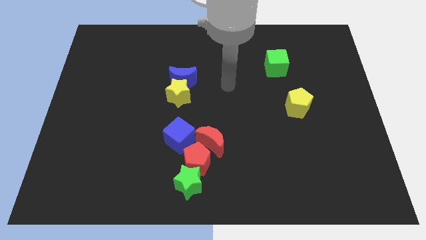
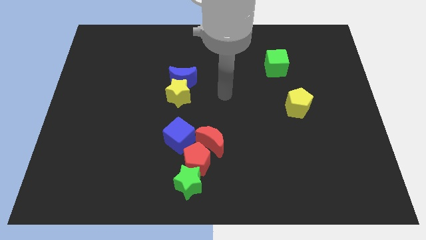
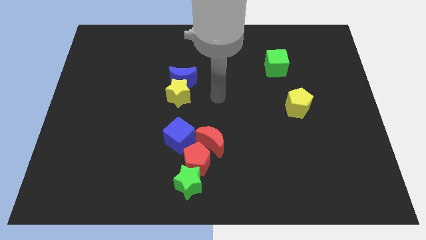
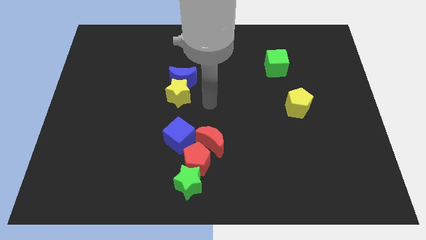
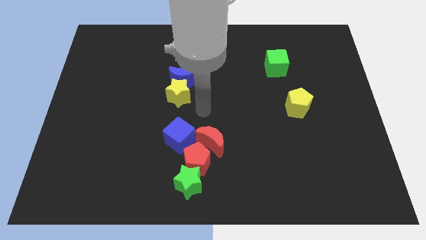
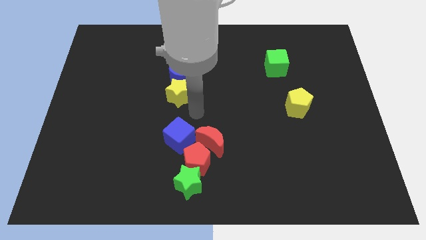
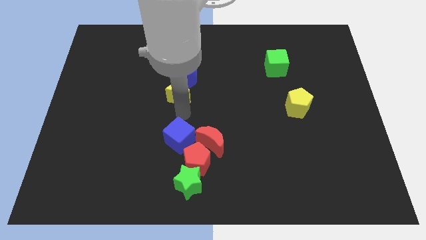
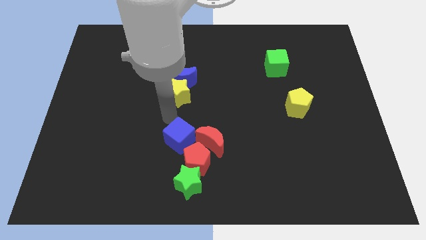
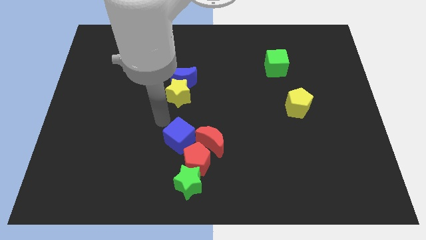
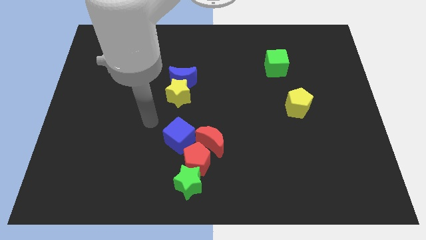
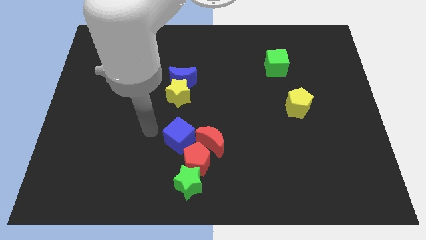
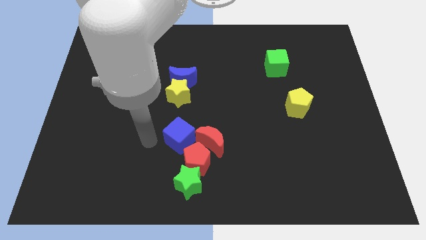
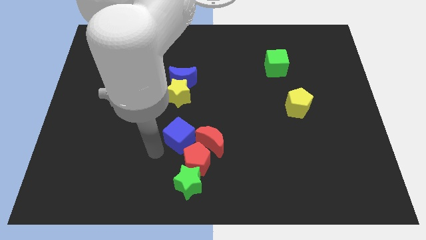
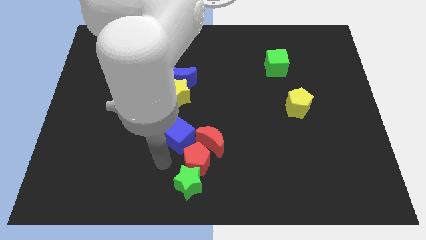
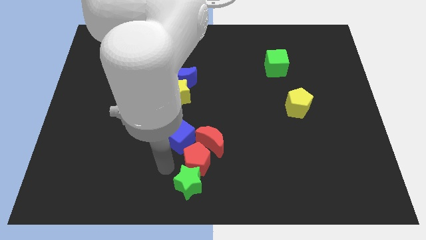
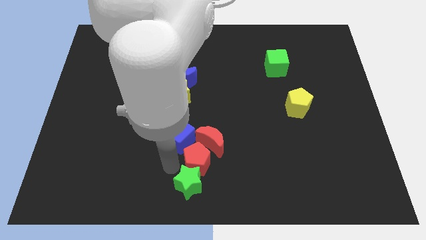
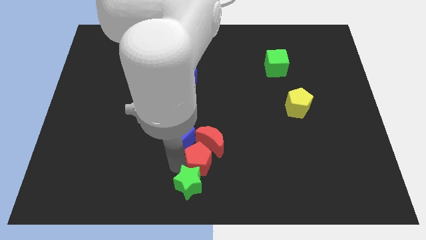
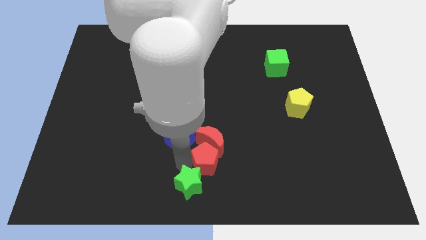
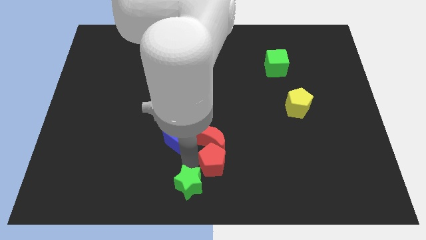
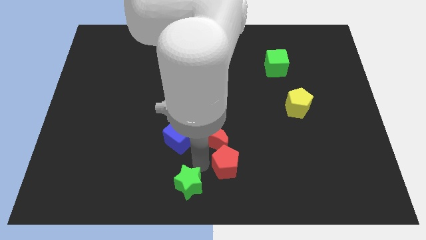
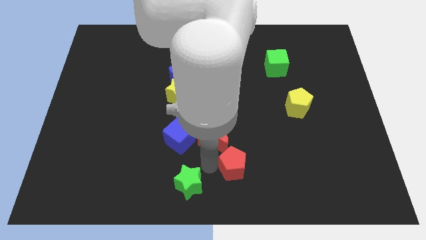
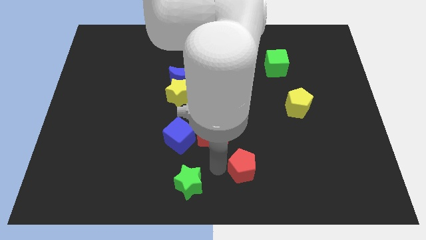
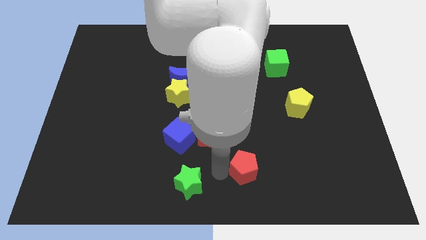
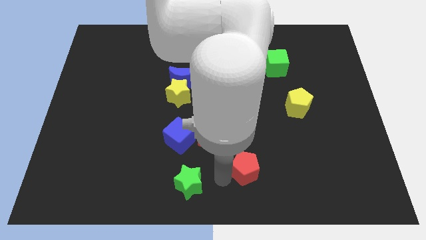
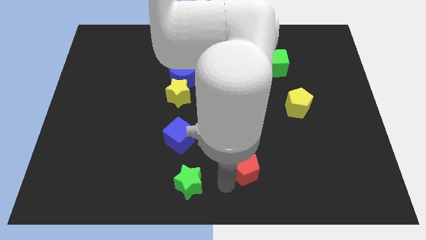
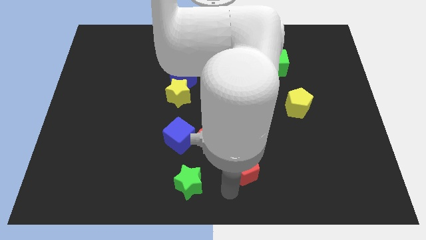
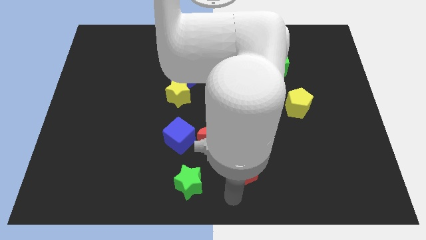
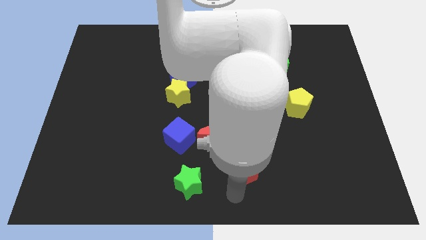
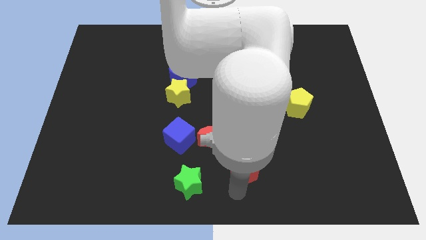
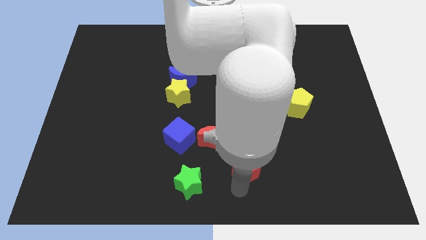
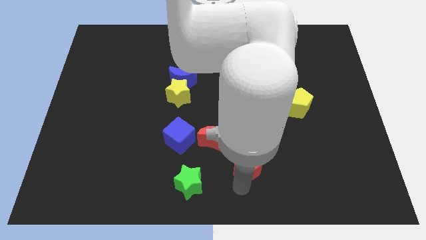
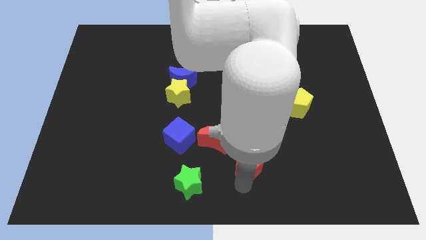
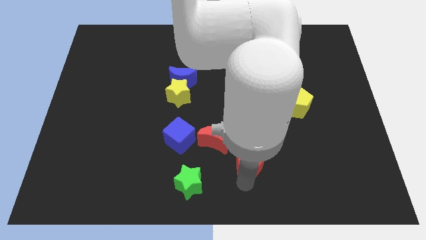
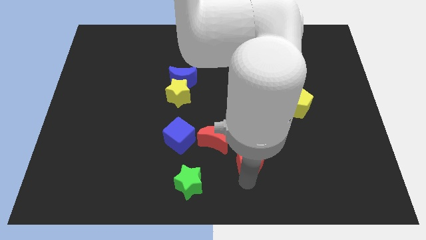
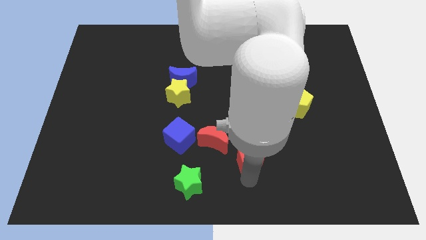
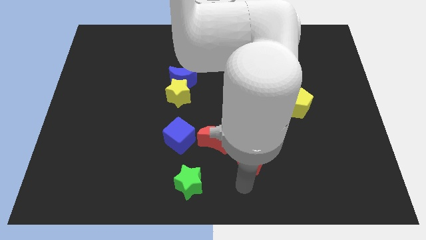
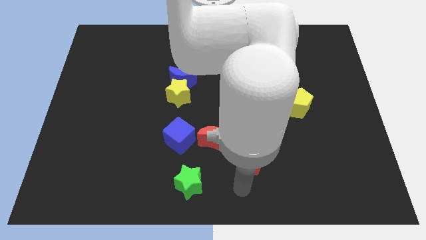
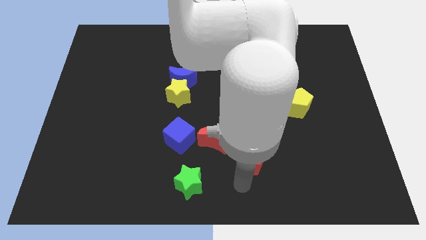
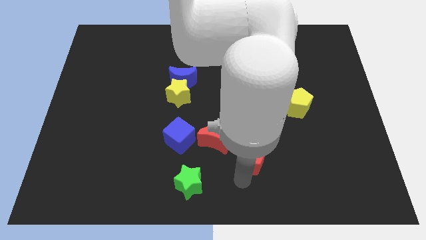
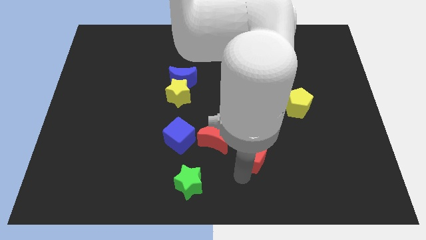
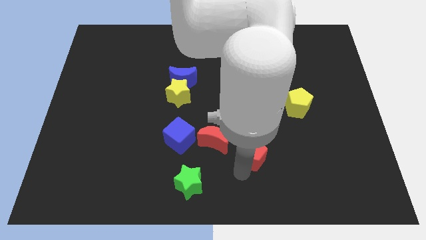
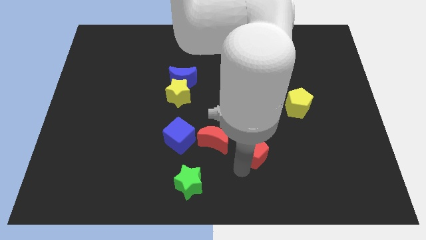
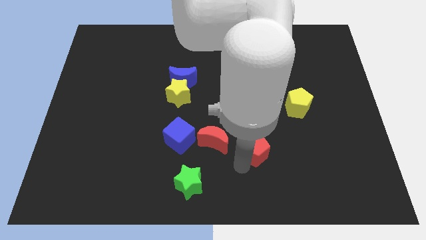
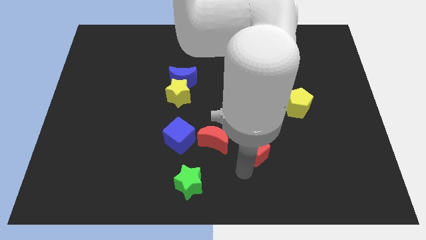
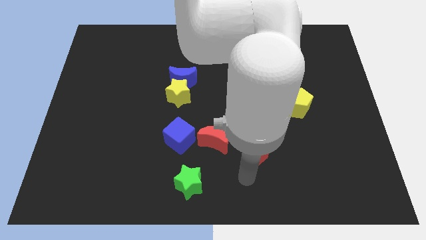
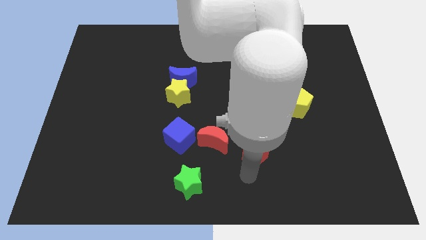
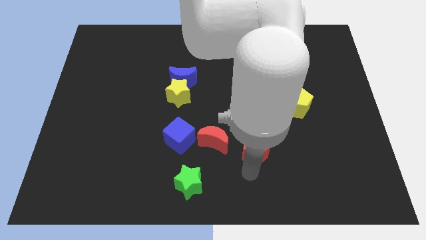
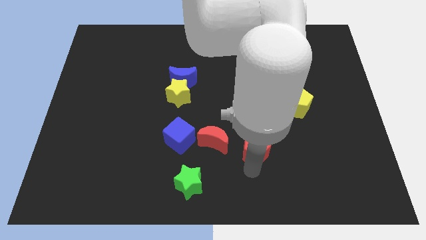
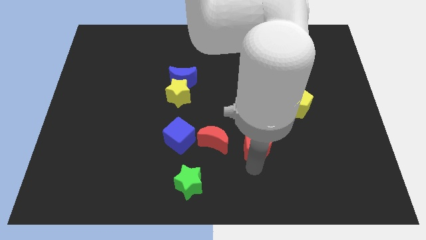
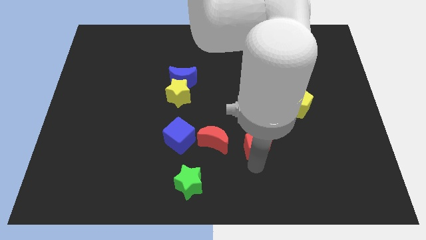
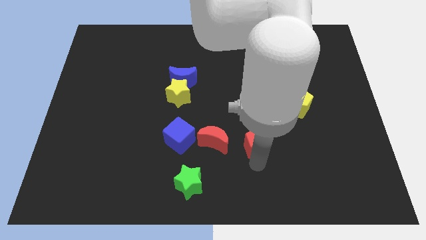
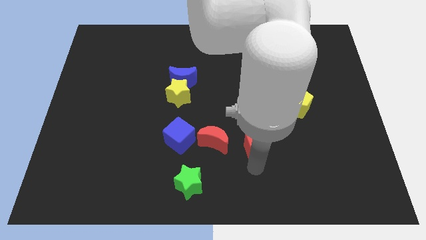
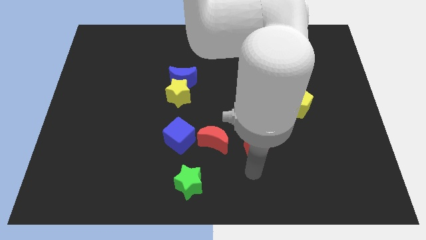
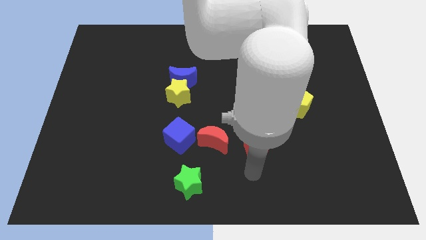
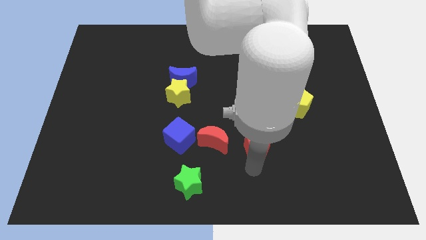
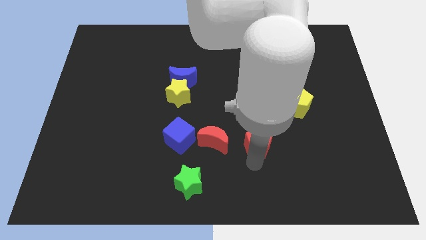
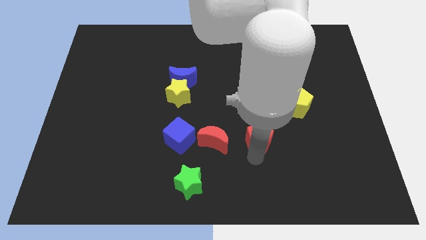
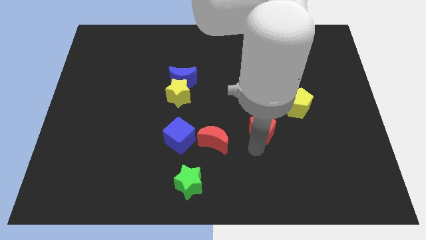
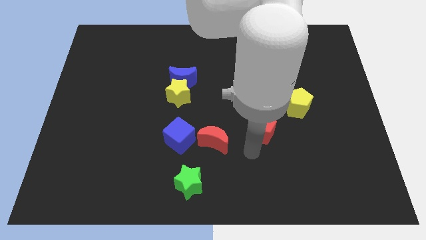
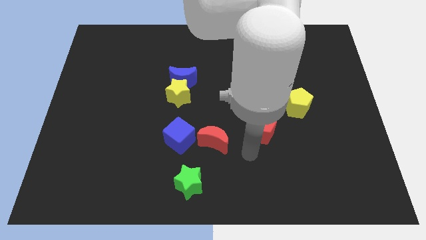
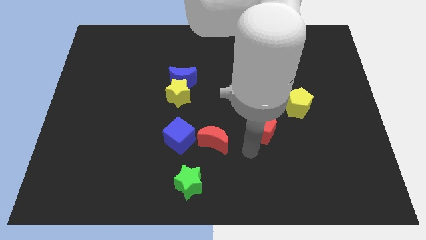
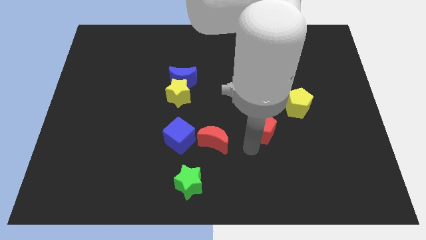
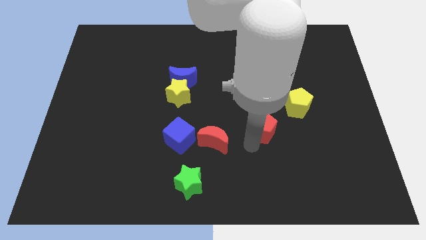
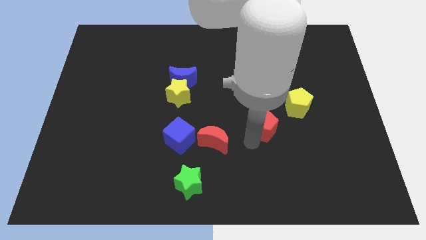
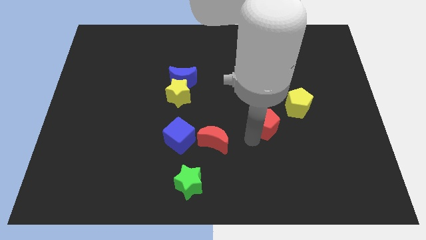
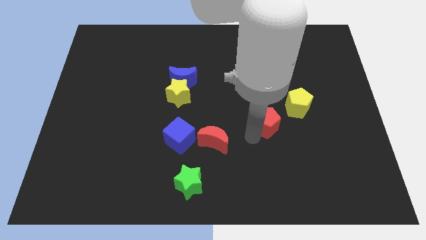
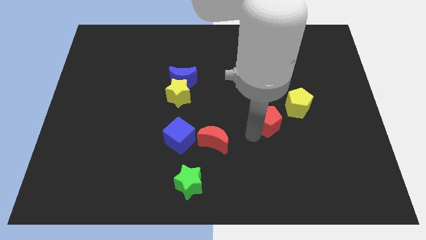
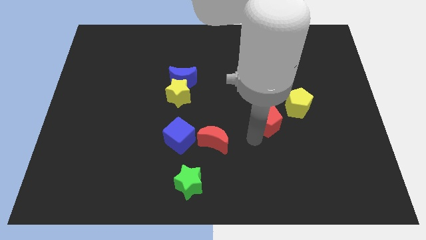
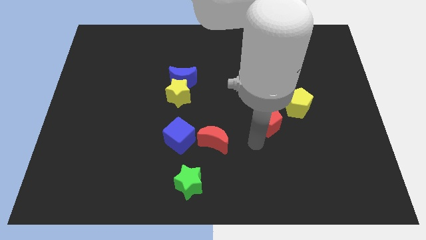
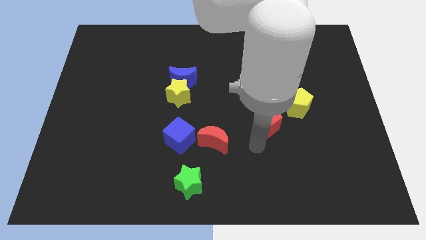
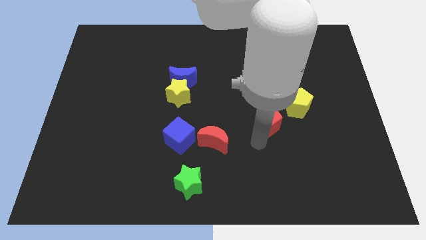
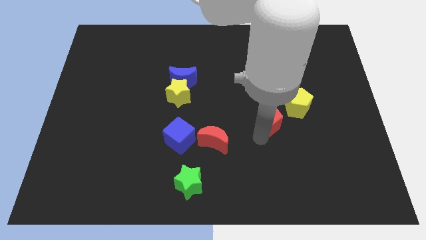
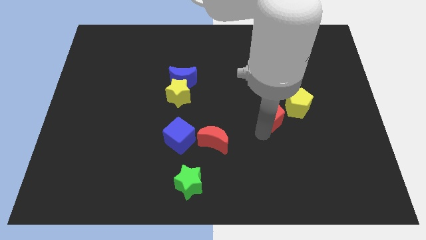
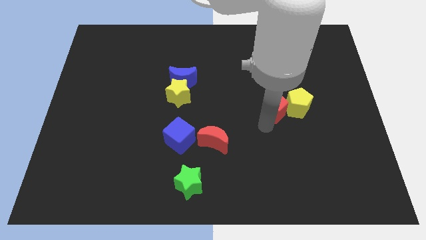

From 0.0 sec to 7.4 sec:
slide the red pentagon upwards and then right

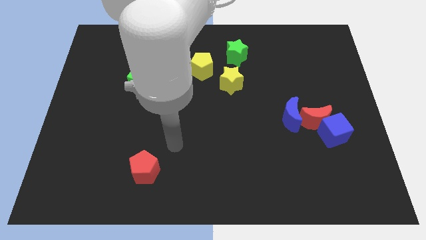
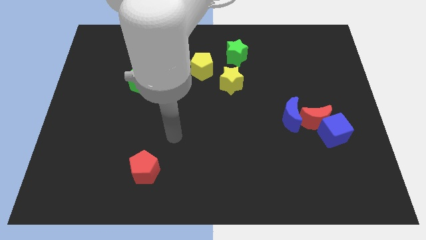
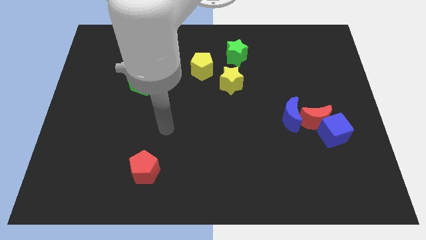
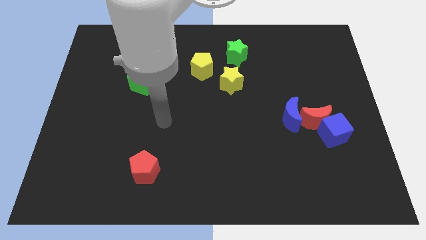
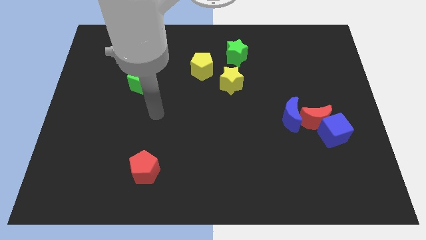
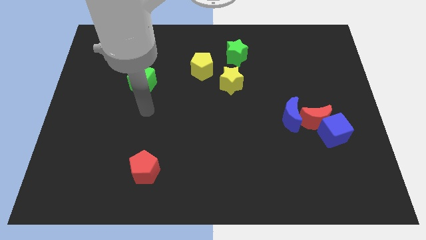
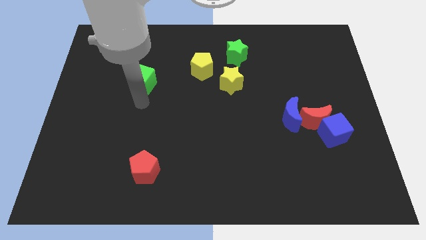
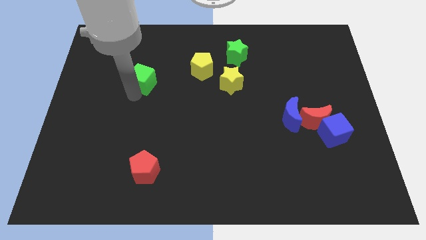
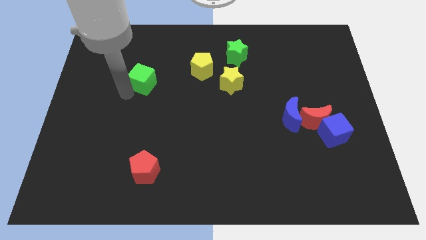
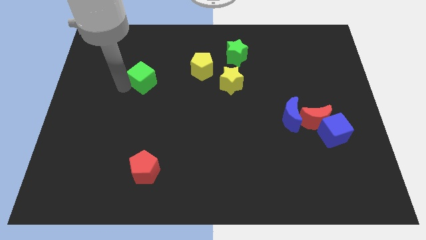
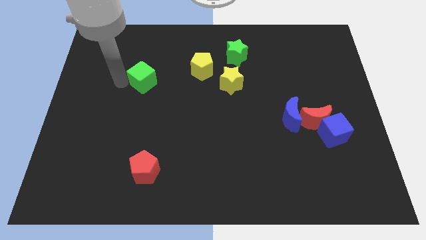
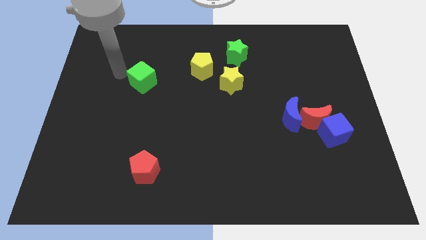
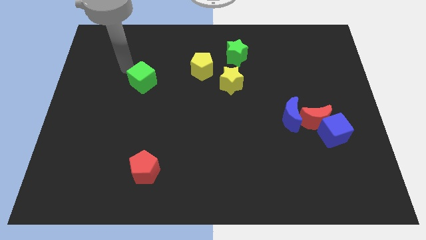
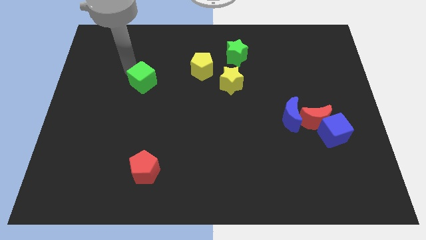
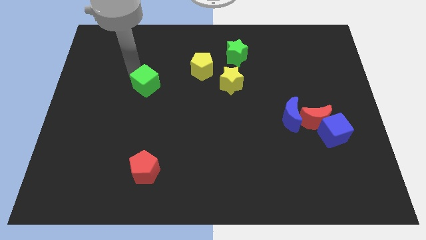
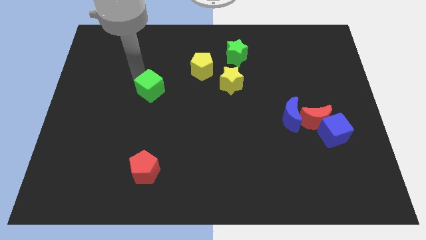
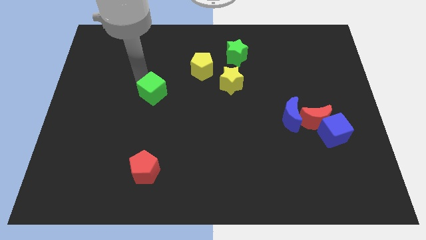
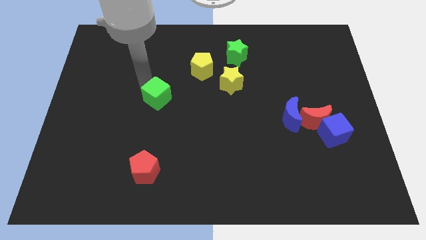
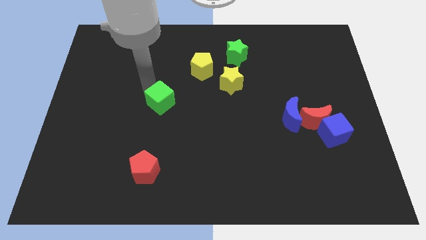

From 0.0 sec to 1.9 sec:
slightly slide the green cube diagonally downwards and right
